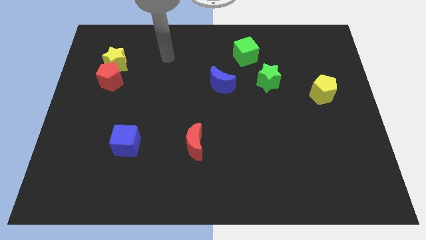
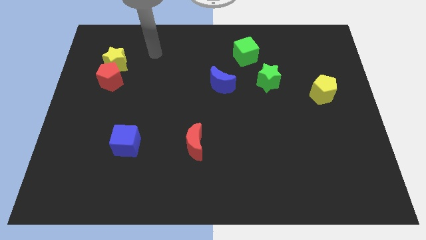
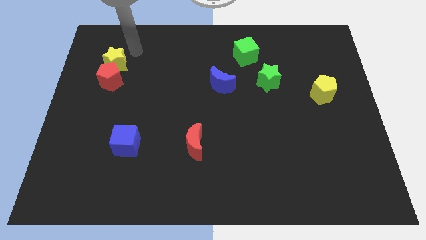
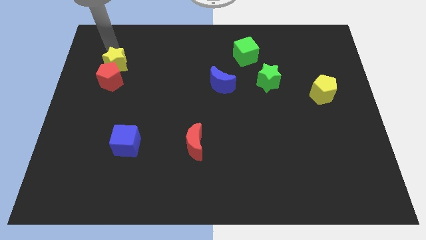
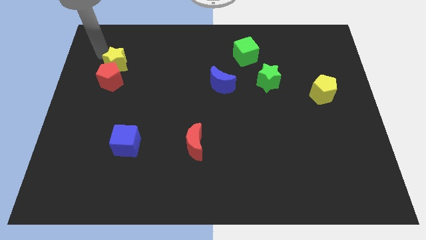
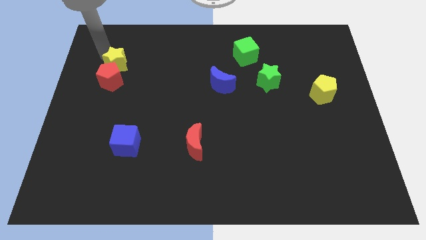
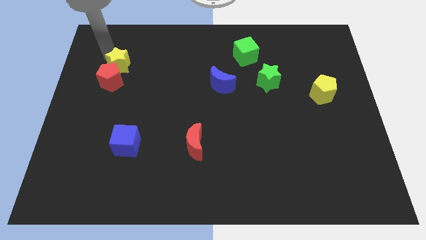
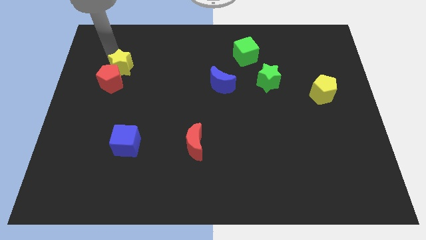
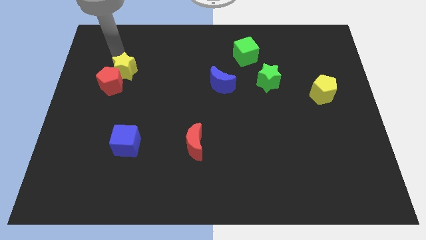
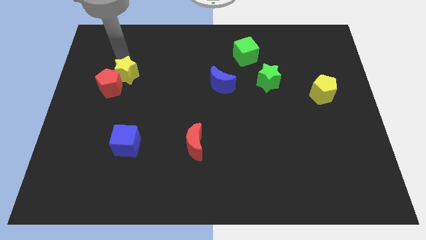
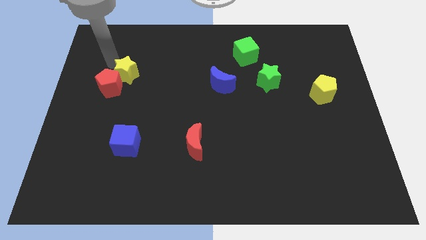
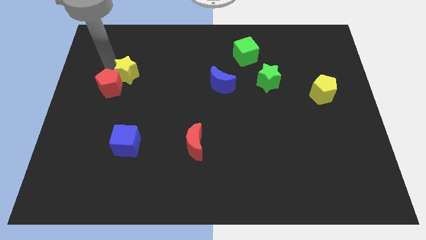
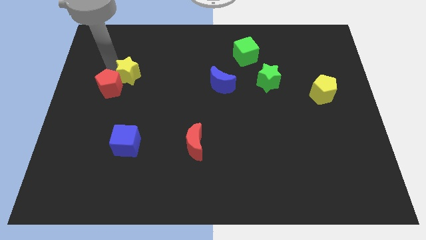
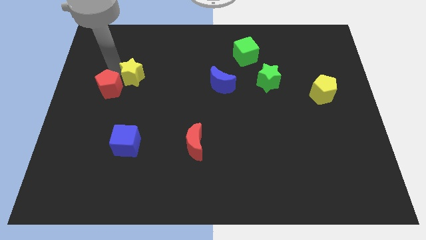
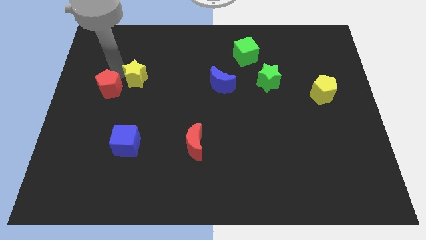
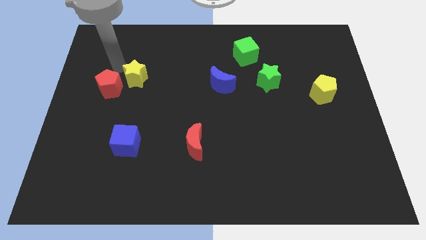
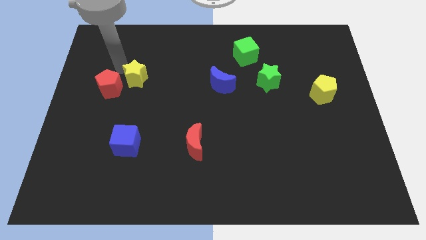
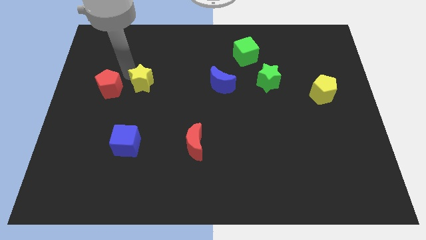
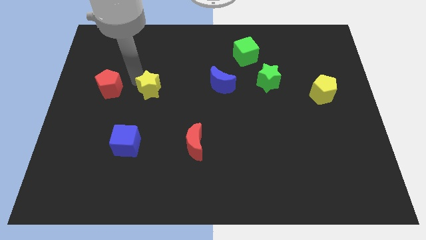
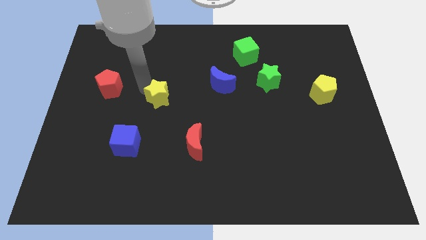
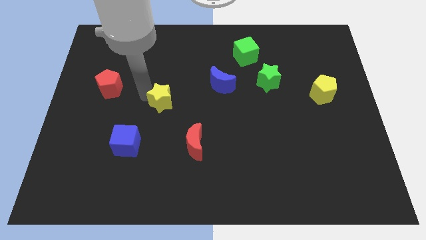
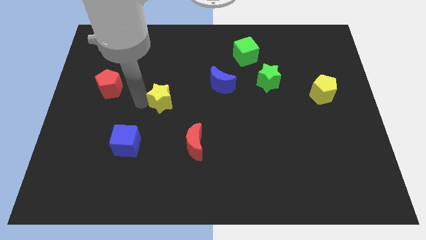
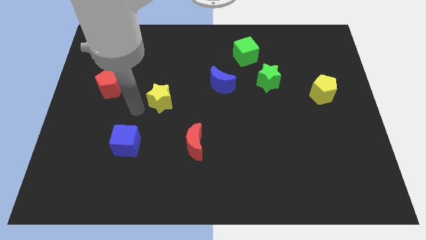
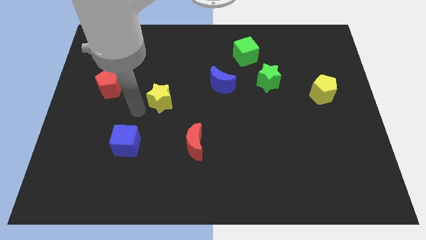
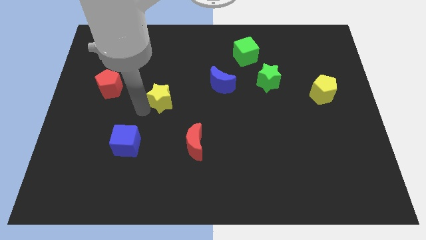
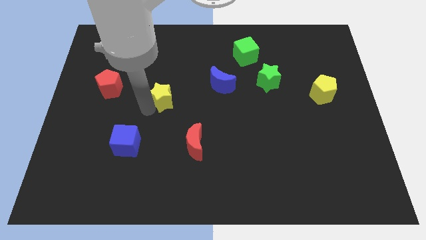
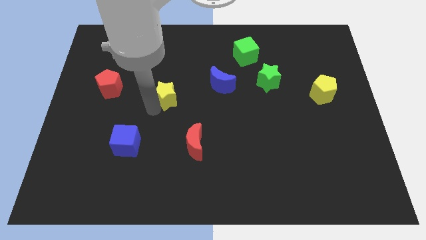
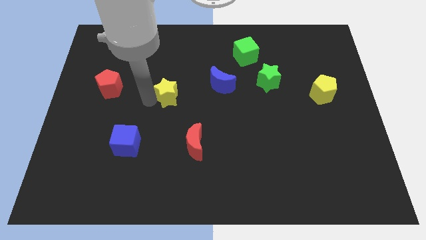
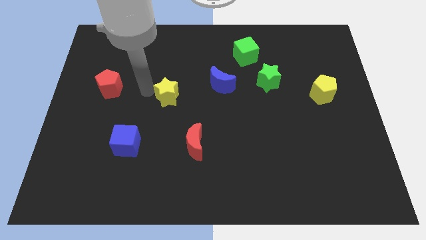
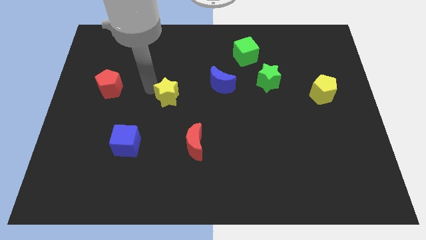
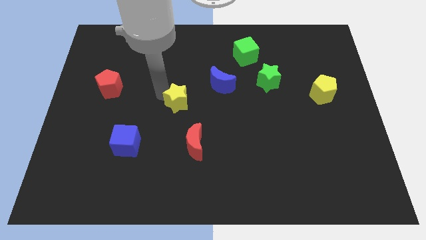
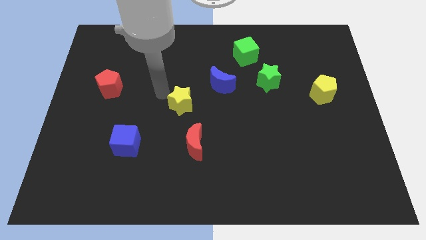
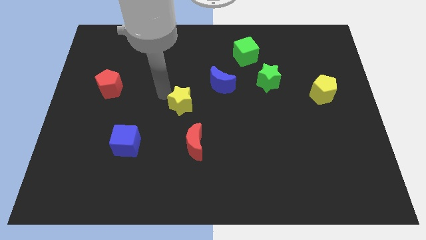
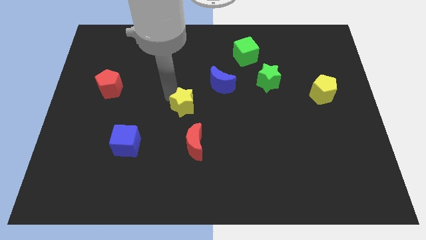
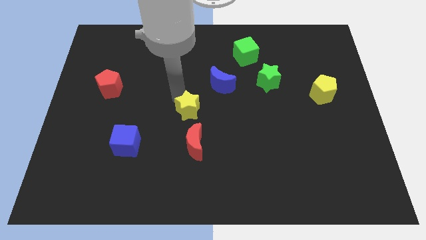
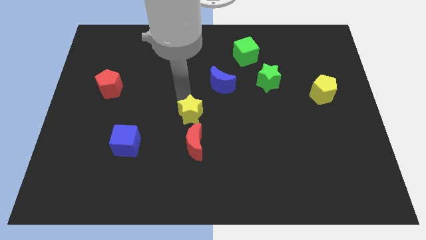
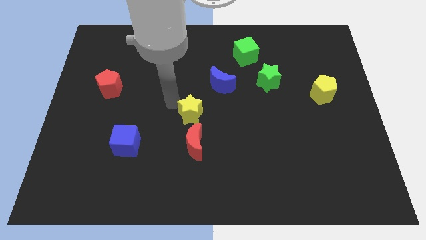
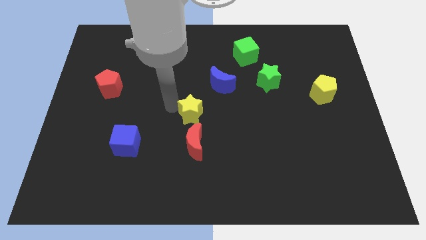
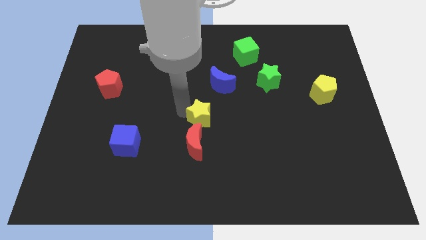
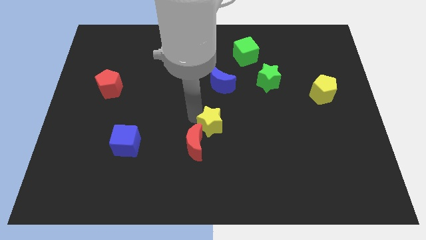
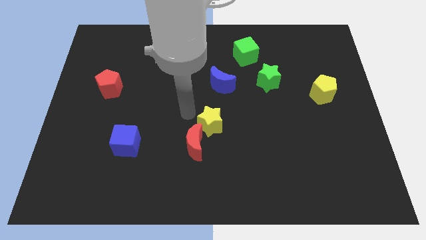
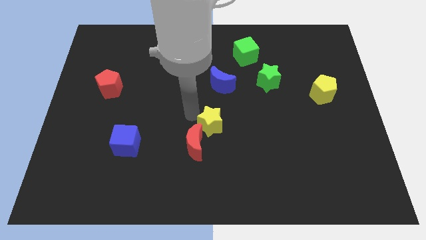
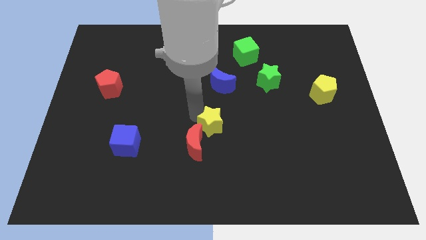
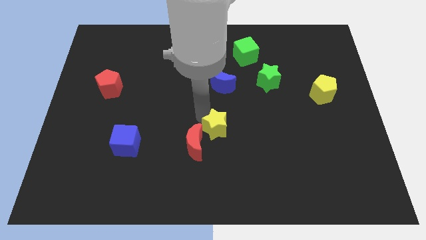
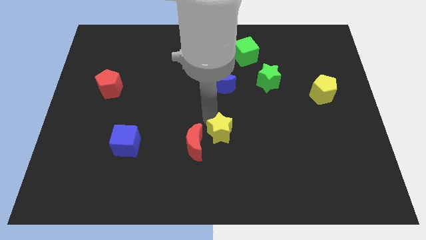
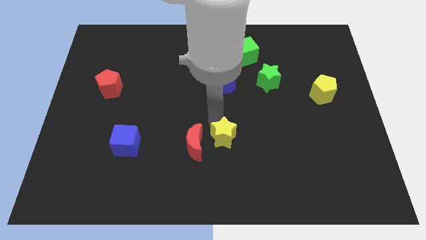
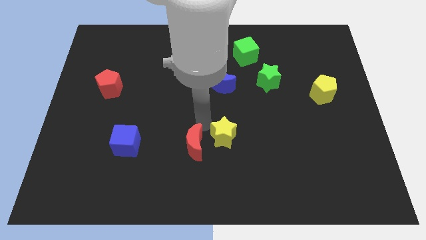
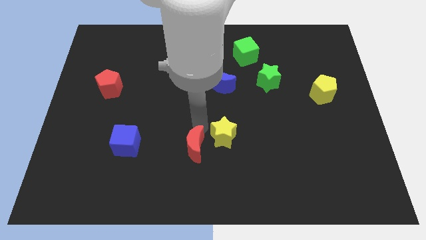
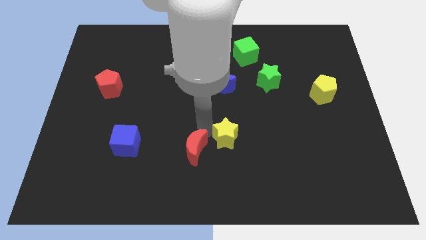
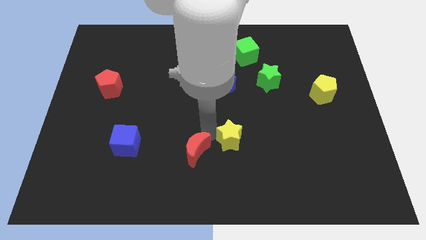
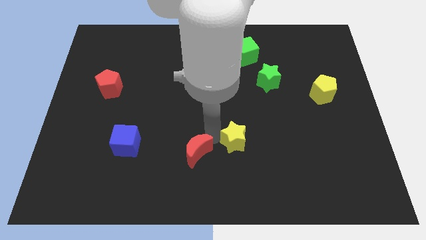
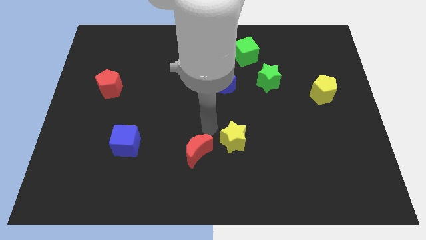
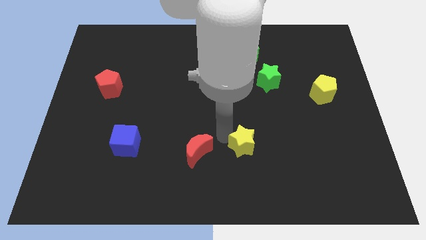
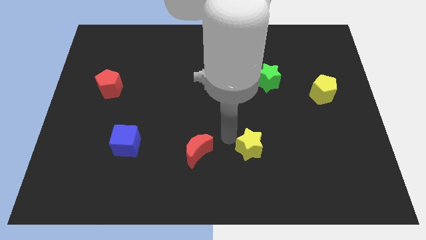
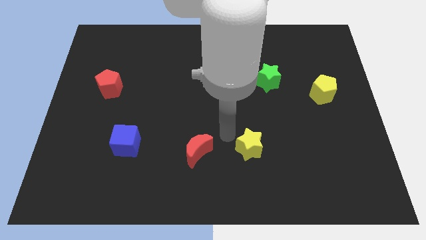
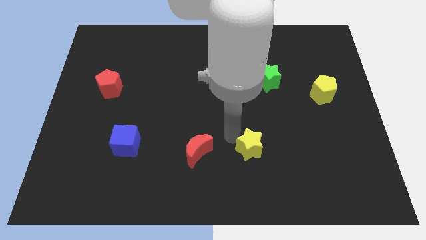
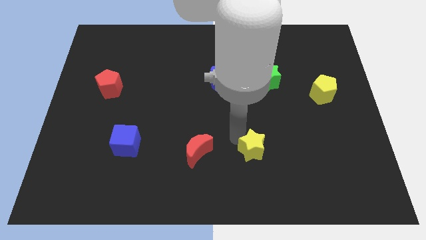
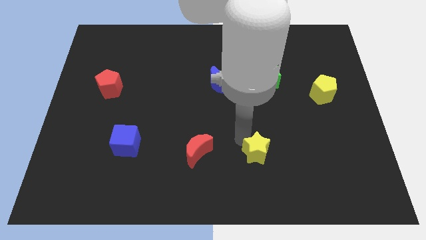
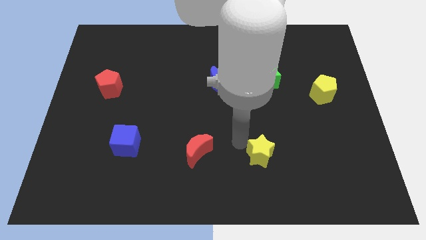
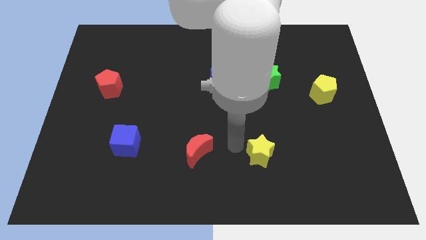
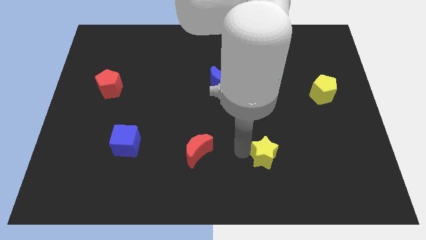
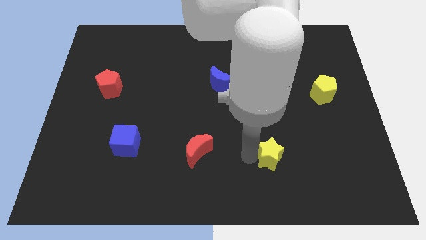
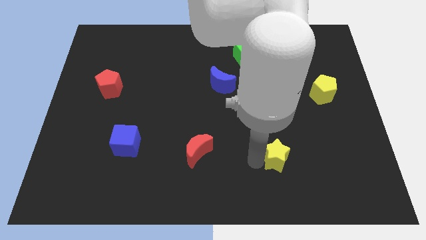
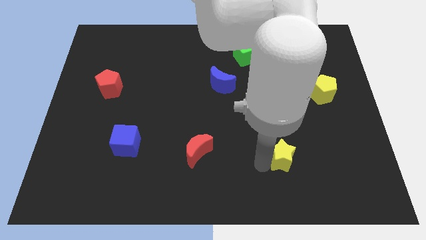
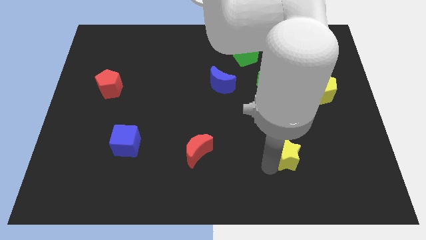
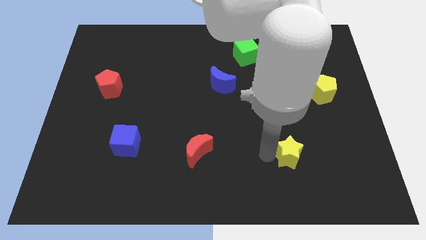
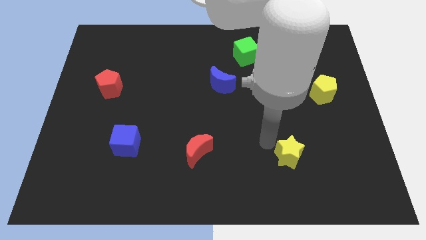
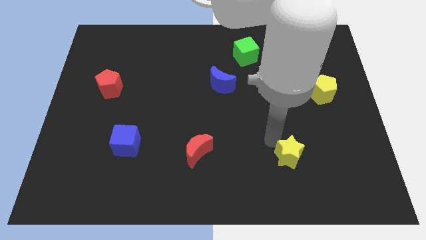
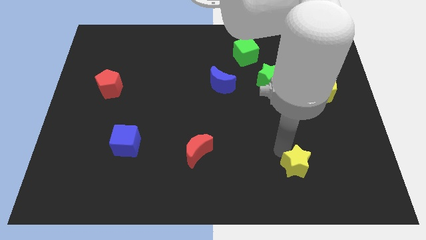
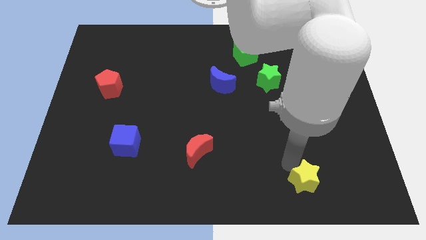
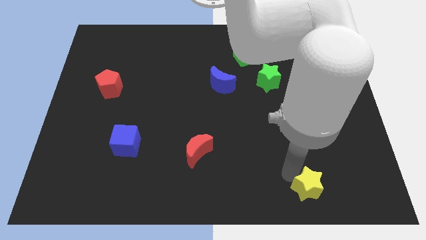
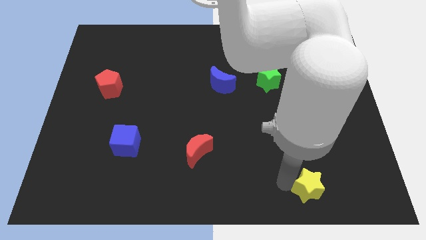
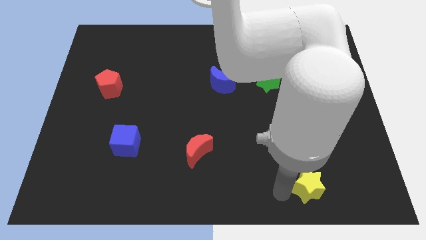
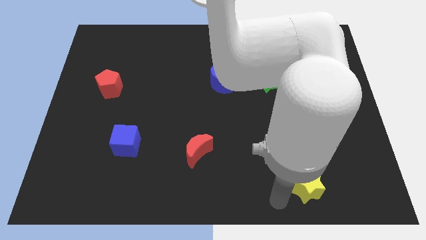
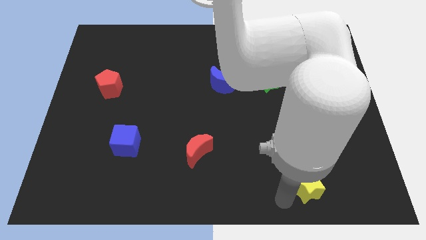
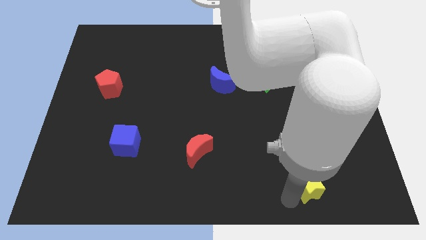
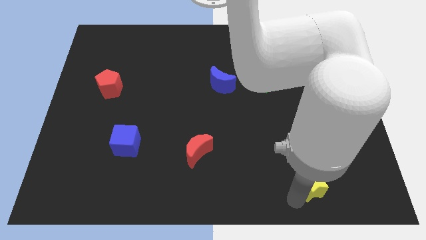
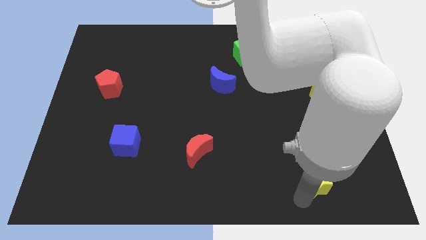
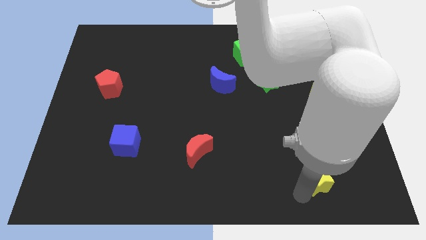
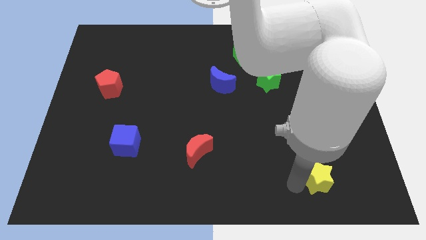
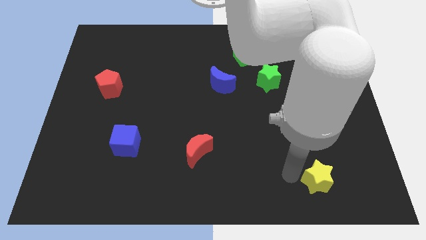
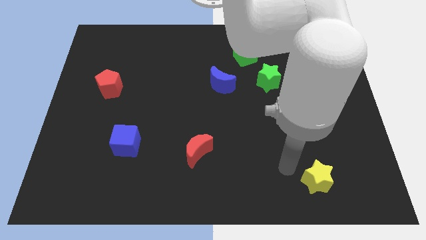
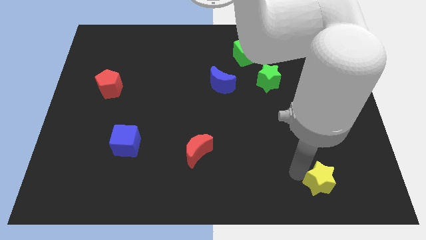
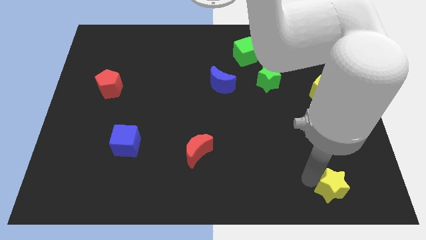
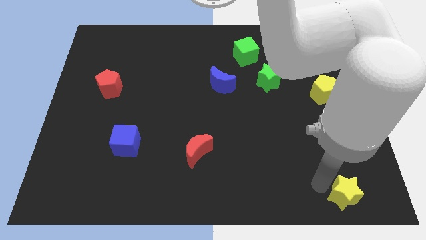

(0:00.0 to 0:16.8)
move the yellow star to the bottom right
